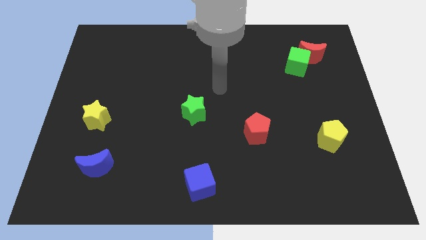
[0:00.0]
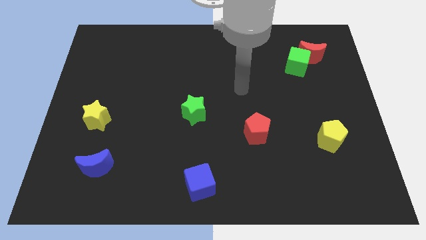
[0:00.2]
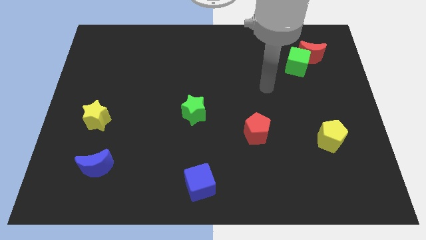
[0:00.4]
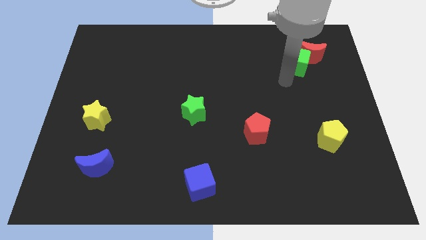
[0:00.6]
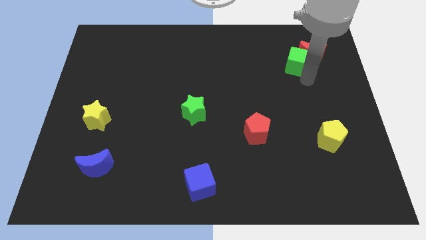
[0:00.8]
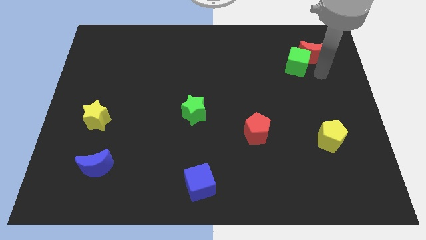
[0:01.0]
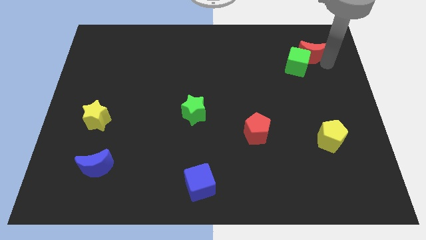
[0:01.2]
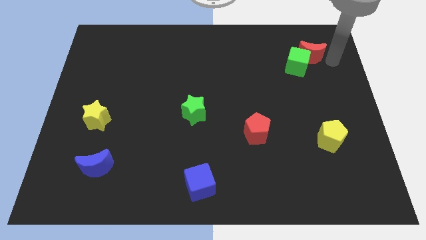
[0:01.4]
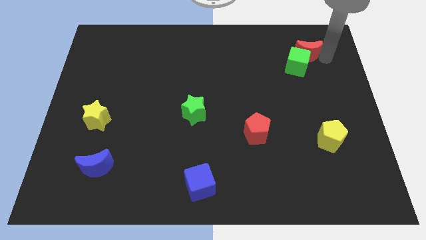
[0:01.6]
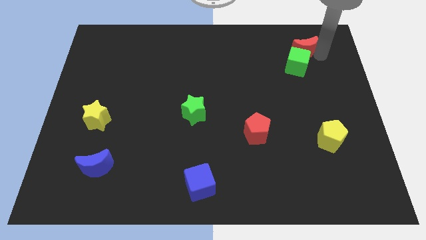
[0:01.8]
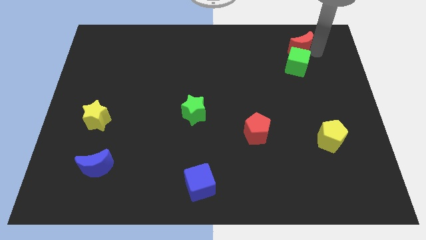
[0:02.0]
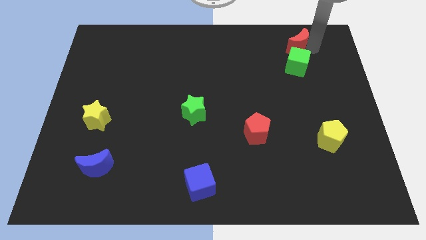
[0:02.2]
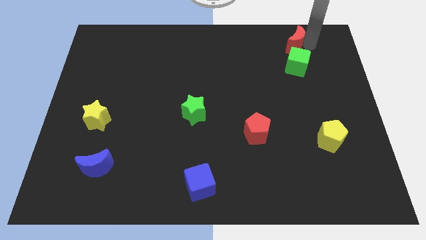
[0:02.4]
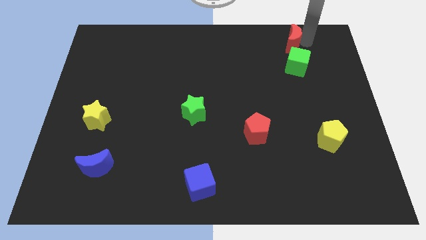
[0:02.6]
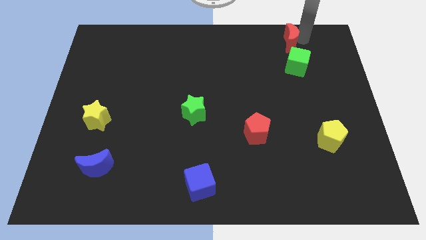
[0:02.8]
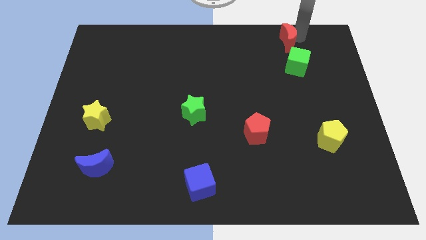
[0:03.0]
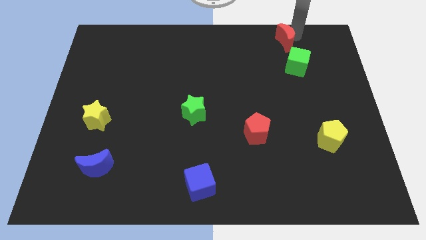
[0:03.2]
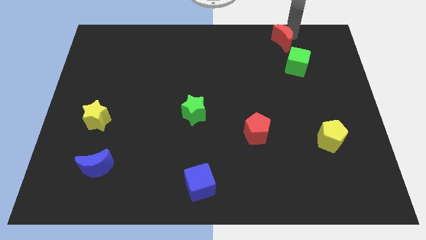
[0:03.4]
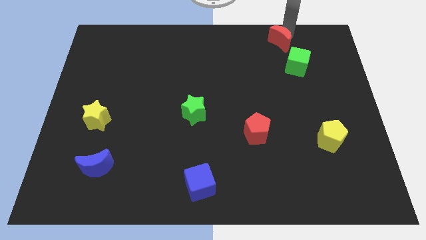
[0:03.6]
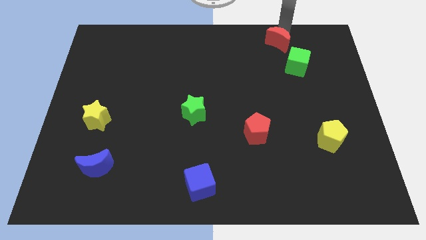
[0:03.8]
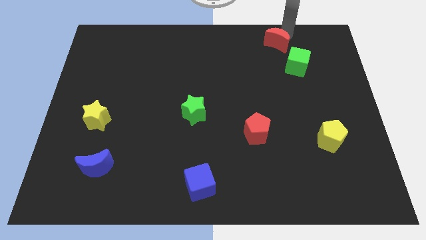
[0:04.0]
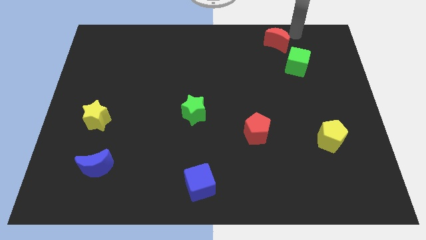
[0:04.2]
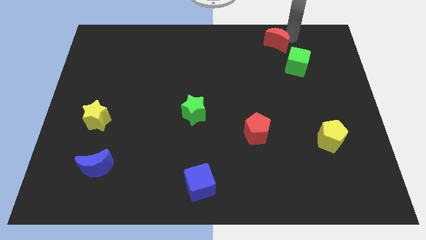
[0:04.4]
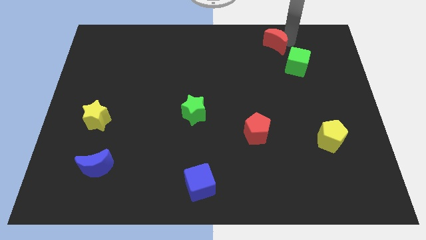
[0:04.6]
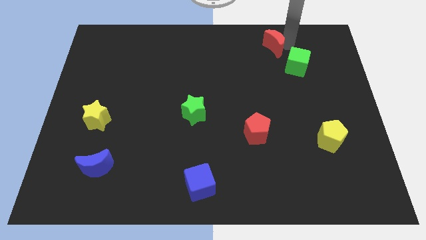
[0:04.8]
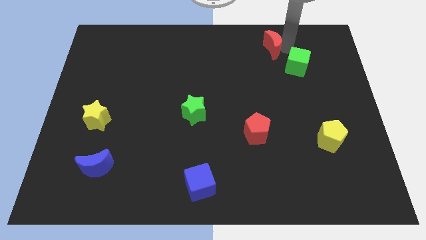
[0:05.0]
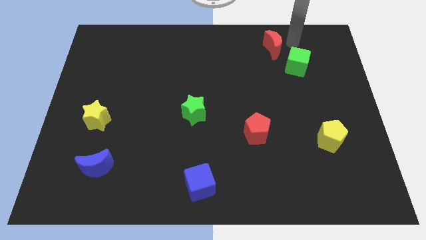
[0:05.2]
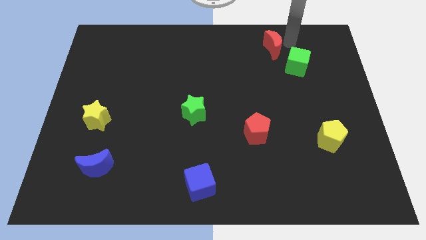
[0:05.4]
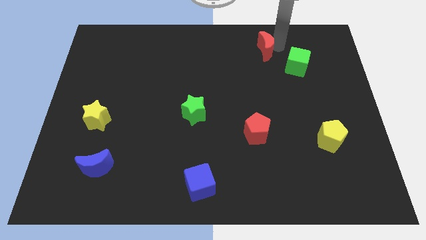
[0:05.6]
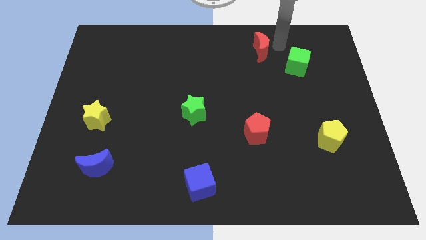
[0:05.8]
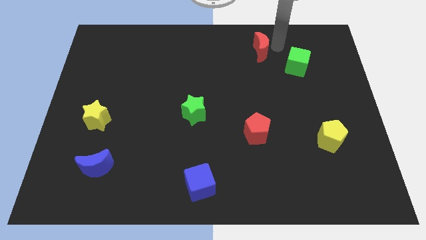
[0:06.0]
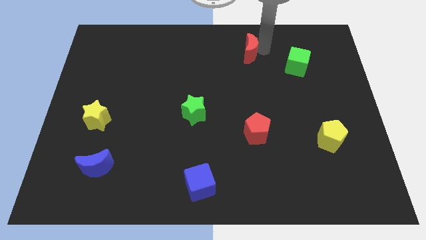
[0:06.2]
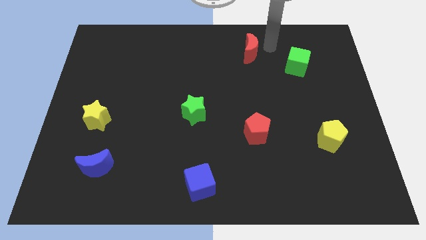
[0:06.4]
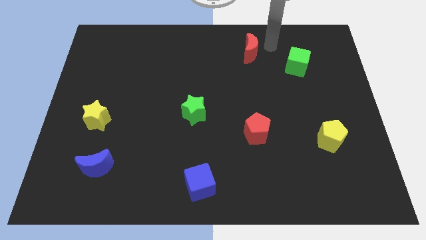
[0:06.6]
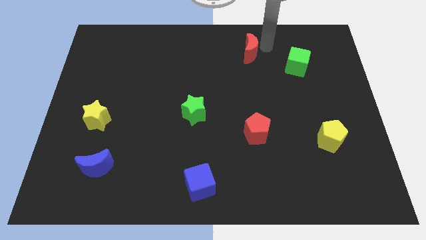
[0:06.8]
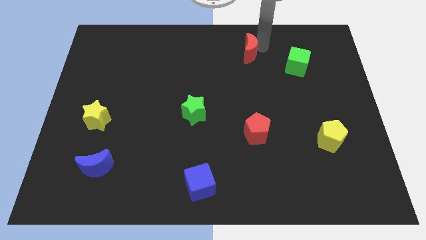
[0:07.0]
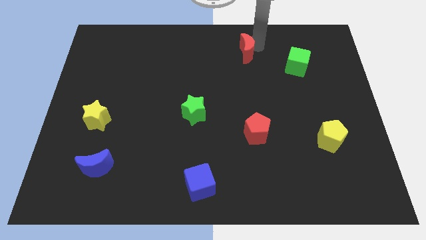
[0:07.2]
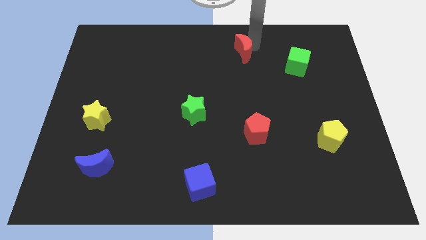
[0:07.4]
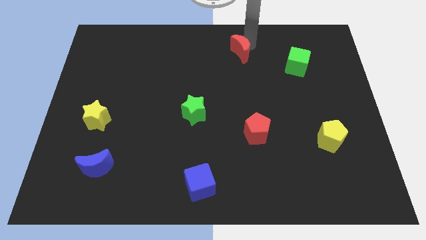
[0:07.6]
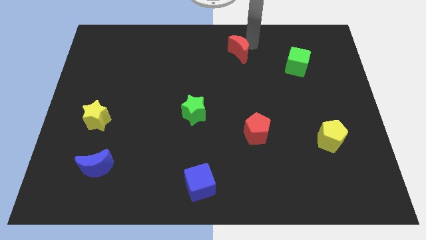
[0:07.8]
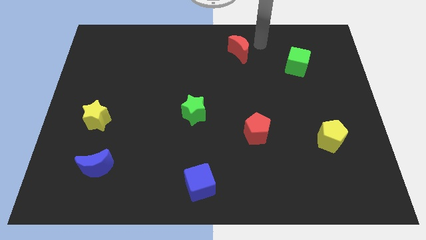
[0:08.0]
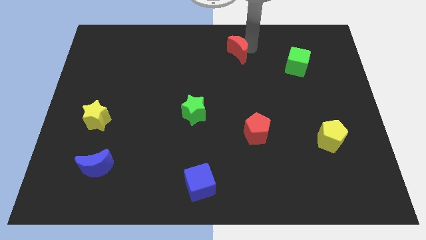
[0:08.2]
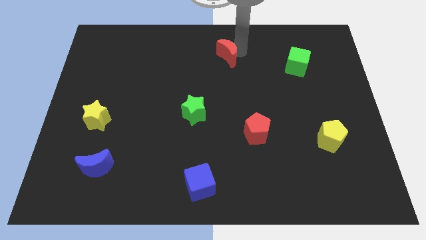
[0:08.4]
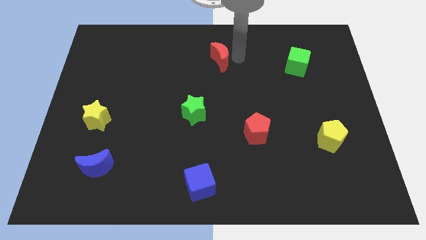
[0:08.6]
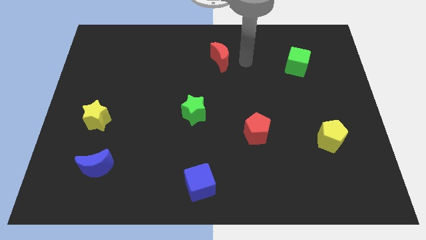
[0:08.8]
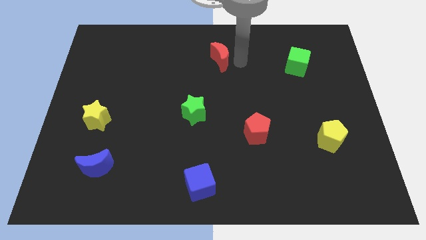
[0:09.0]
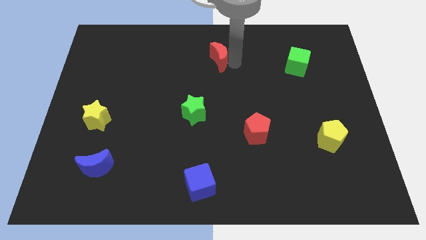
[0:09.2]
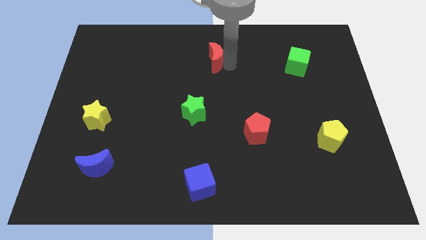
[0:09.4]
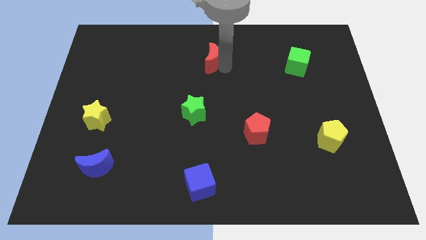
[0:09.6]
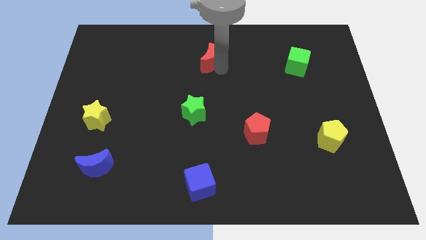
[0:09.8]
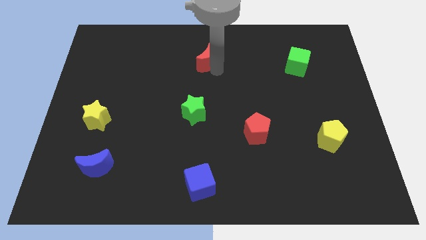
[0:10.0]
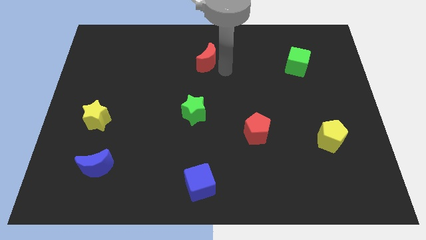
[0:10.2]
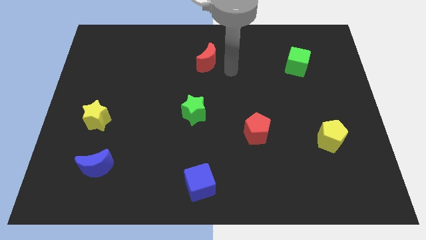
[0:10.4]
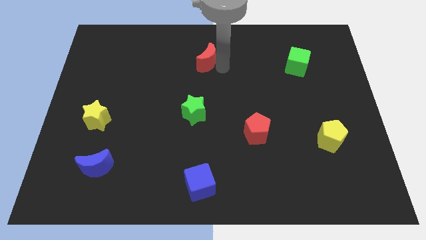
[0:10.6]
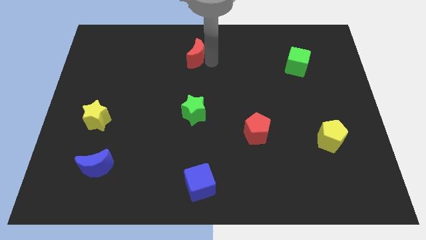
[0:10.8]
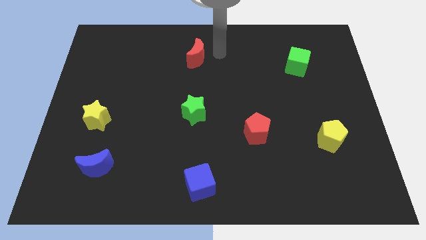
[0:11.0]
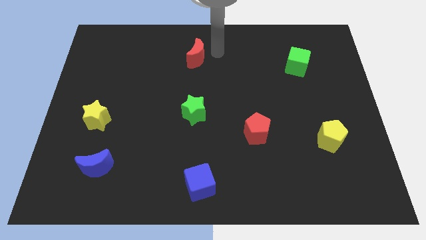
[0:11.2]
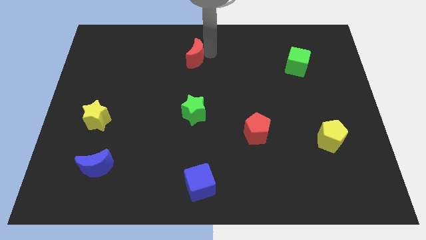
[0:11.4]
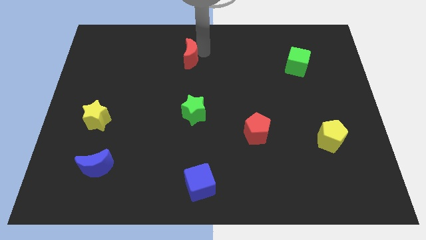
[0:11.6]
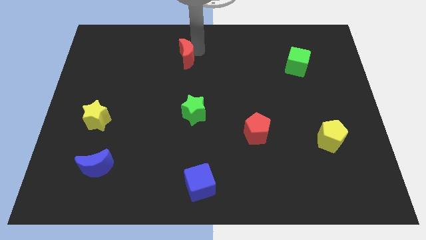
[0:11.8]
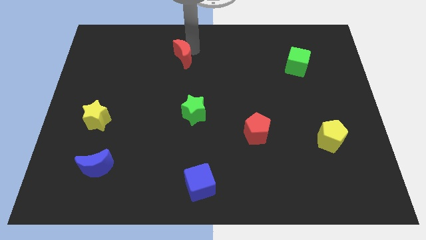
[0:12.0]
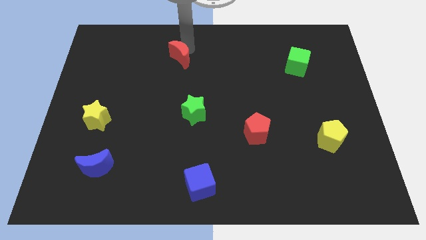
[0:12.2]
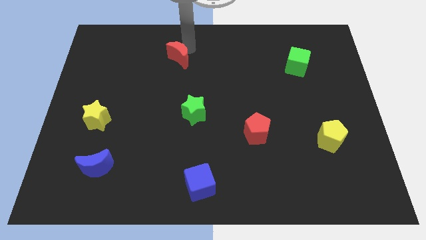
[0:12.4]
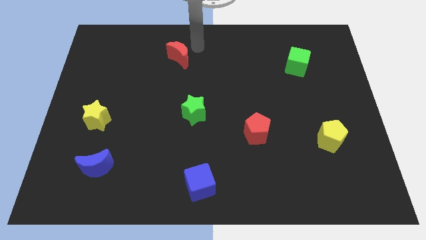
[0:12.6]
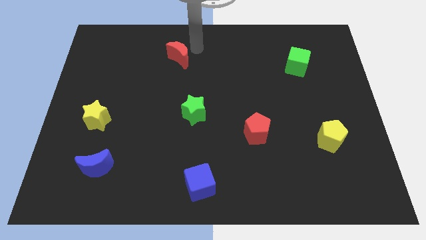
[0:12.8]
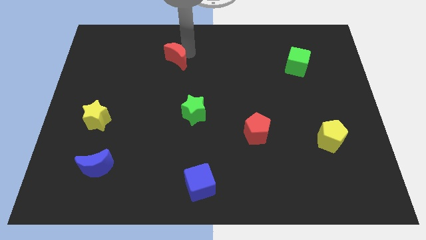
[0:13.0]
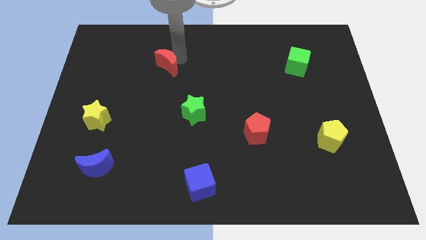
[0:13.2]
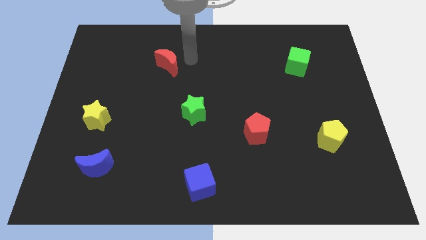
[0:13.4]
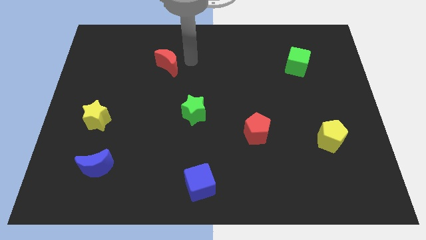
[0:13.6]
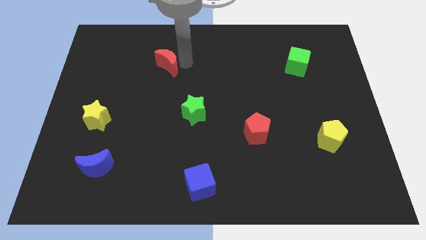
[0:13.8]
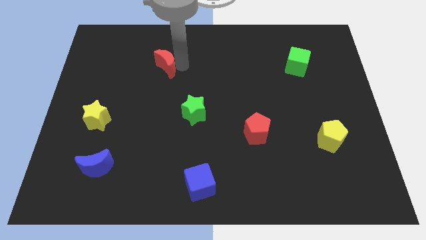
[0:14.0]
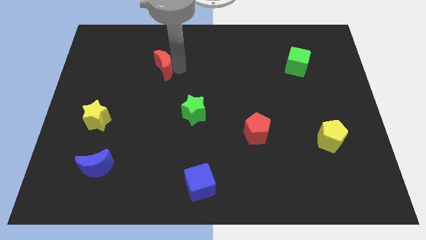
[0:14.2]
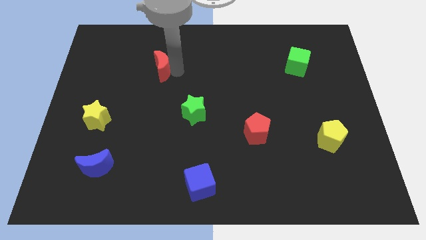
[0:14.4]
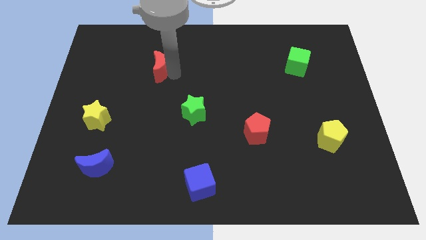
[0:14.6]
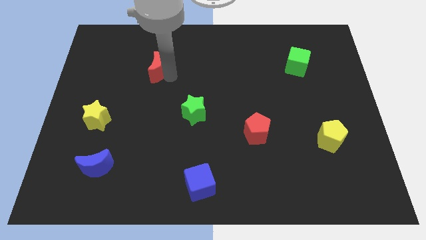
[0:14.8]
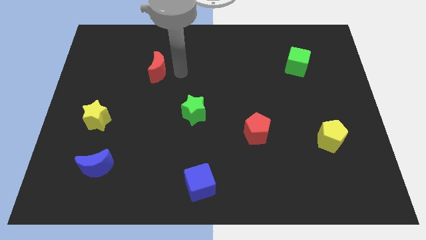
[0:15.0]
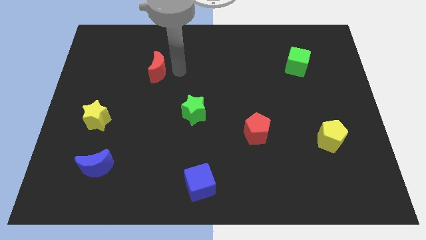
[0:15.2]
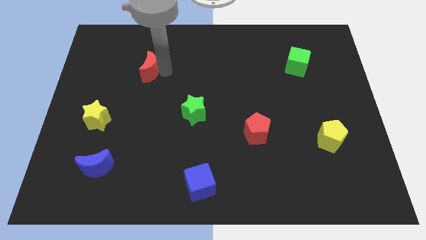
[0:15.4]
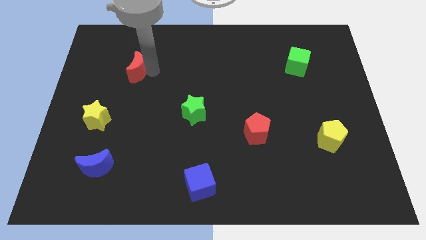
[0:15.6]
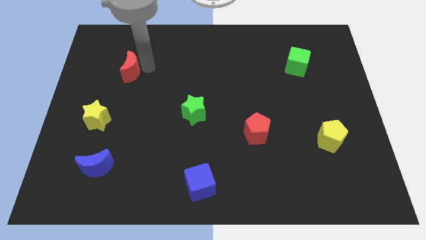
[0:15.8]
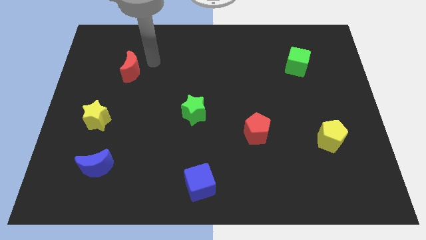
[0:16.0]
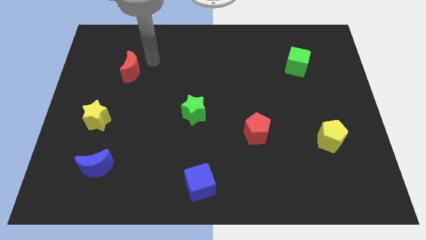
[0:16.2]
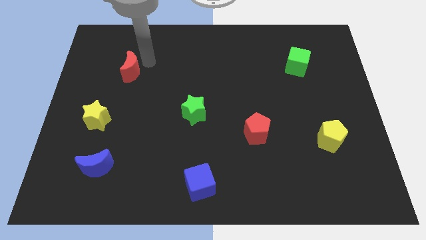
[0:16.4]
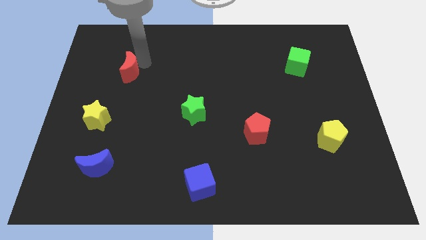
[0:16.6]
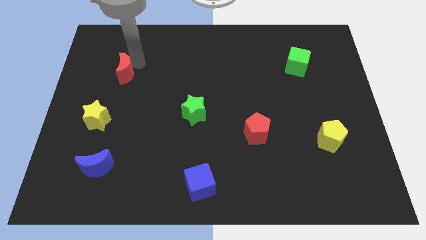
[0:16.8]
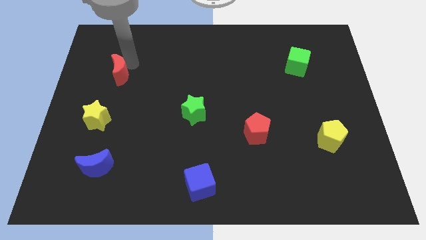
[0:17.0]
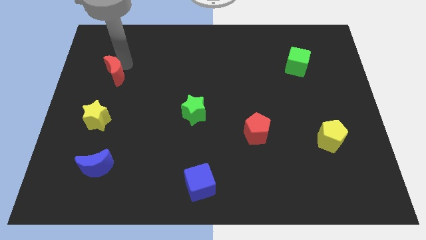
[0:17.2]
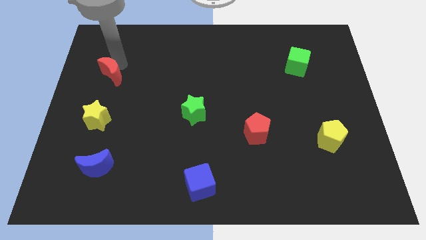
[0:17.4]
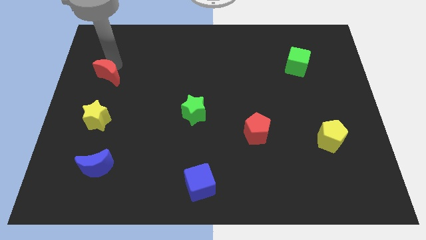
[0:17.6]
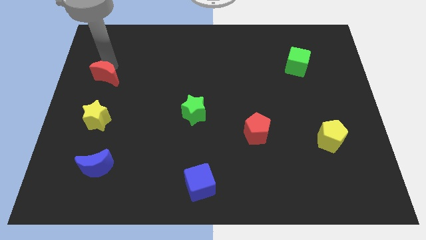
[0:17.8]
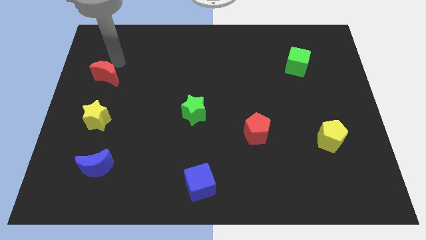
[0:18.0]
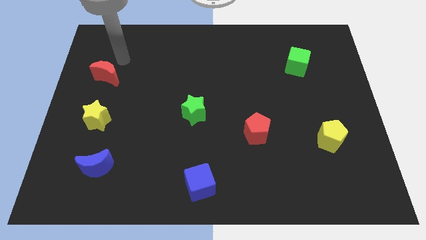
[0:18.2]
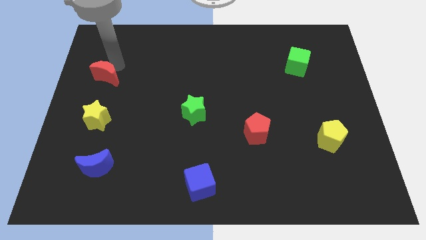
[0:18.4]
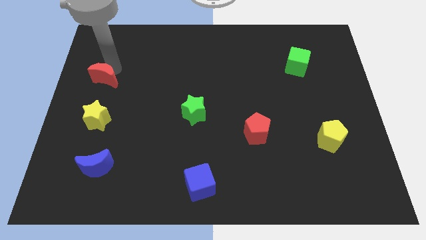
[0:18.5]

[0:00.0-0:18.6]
slide the red moon to the left side
